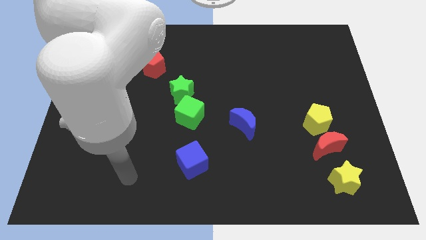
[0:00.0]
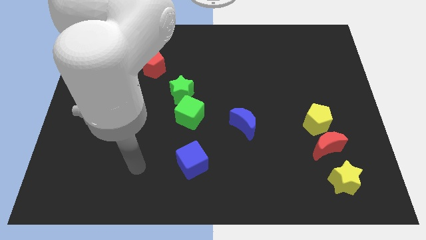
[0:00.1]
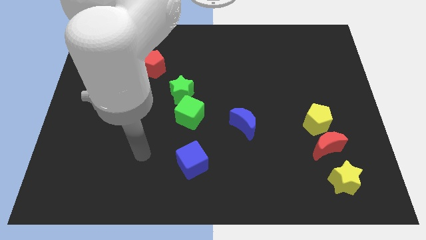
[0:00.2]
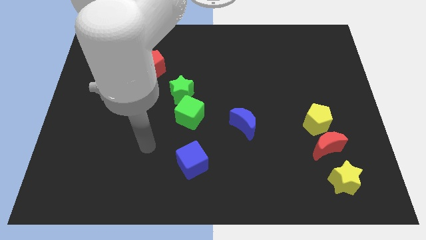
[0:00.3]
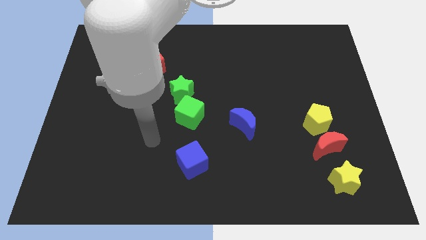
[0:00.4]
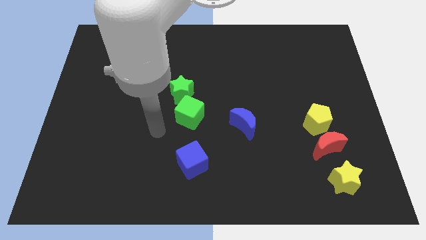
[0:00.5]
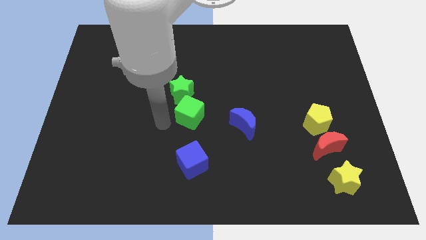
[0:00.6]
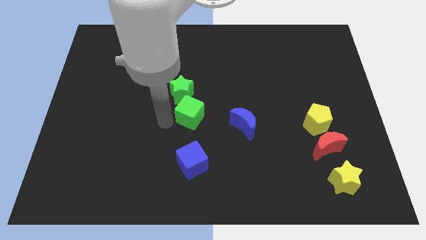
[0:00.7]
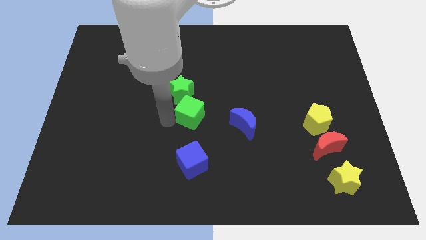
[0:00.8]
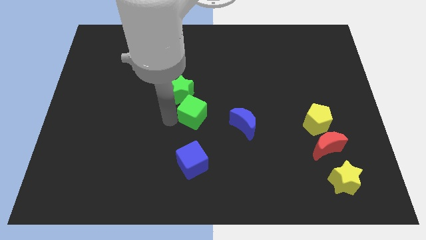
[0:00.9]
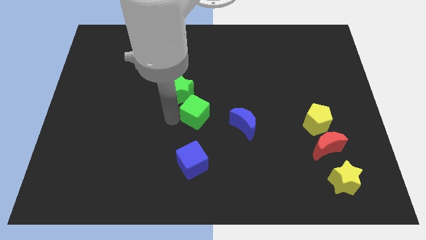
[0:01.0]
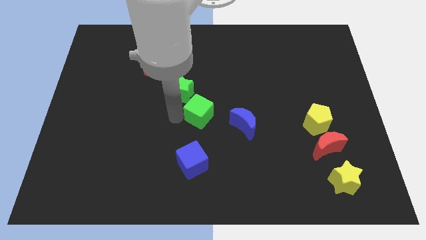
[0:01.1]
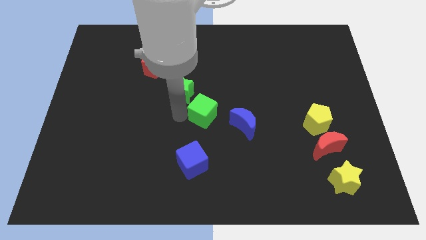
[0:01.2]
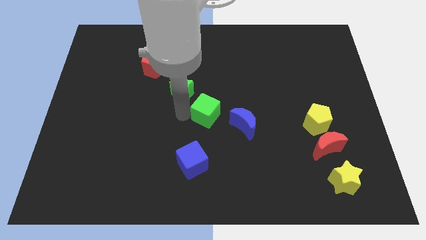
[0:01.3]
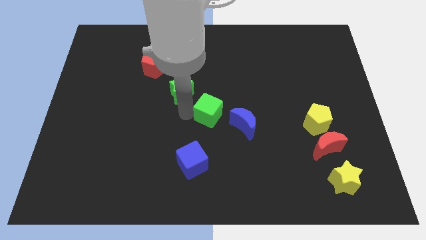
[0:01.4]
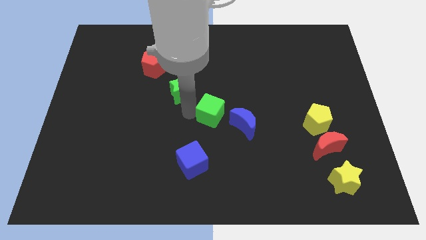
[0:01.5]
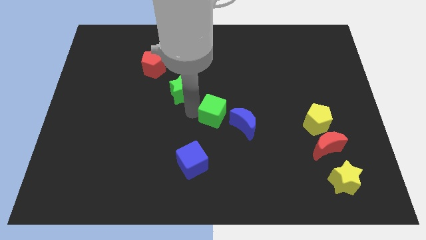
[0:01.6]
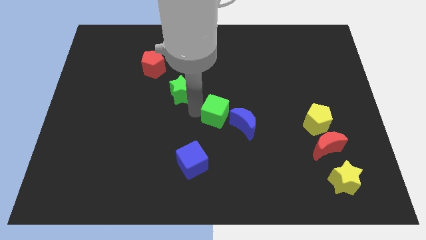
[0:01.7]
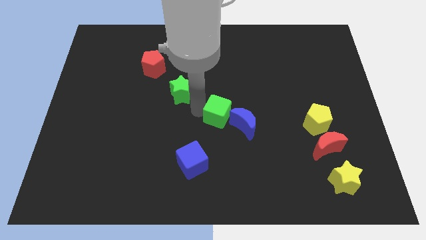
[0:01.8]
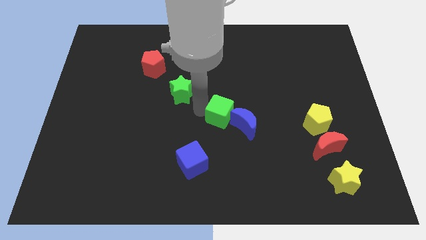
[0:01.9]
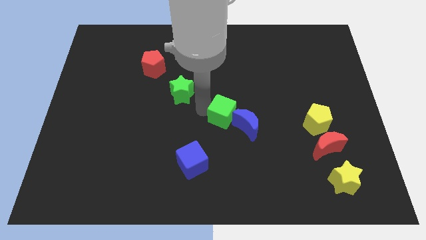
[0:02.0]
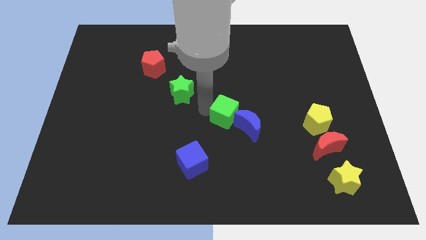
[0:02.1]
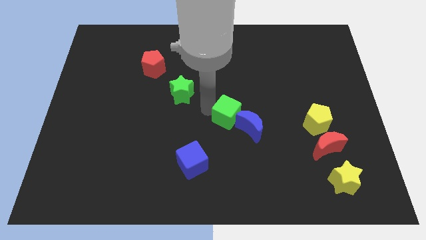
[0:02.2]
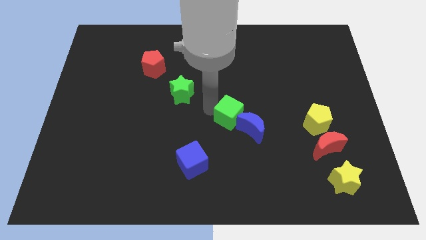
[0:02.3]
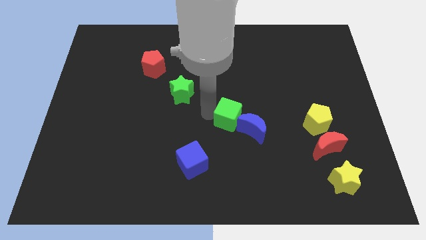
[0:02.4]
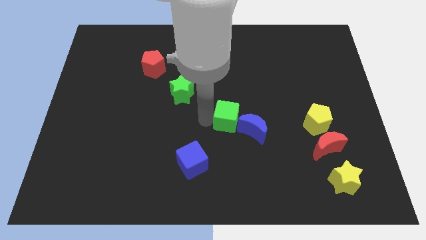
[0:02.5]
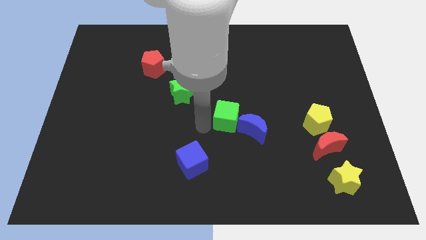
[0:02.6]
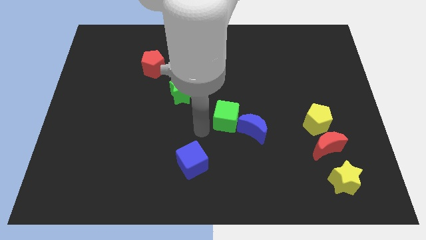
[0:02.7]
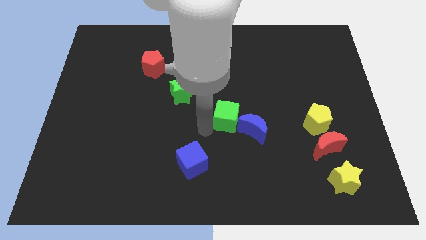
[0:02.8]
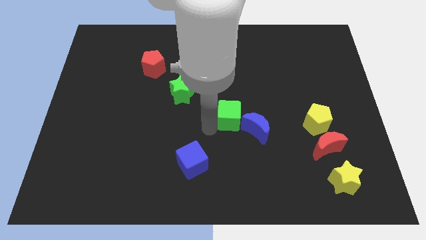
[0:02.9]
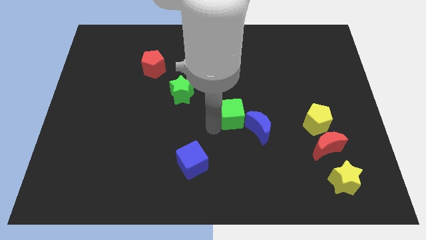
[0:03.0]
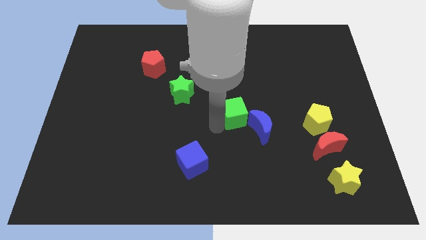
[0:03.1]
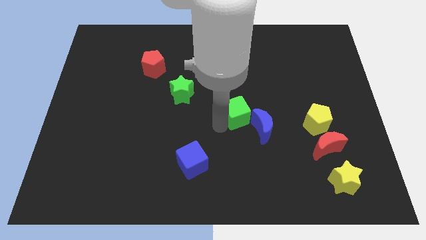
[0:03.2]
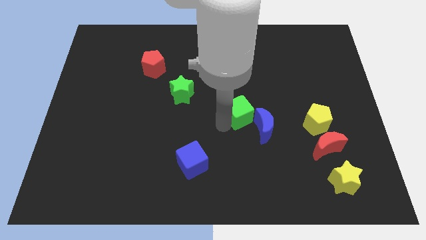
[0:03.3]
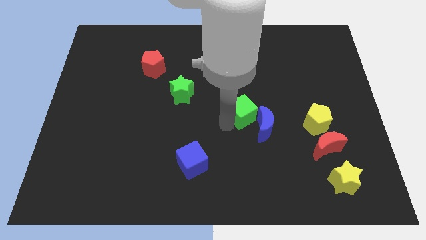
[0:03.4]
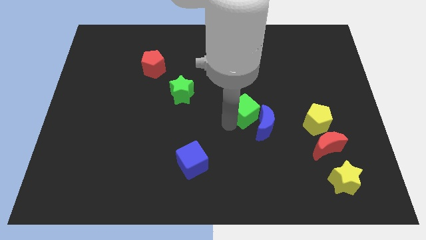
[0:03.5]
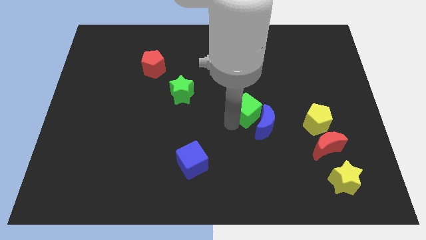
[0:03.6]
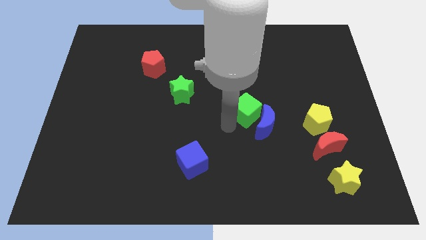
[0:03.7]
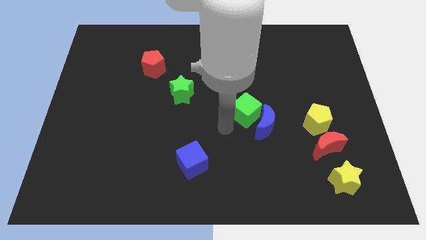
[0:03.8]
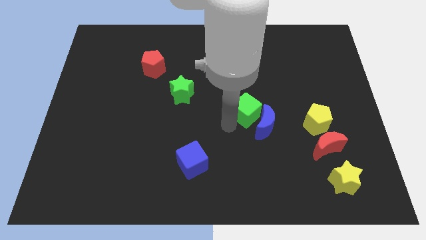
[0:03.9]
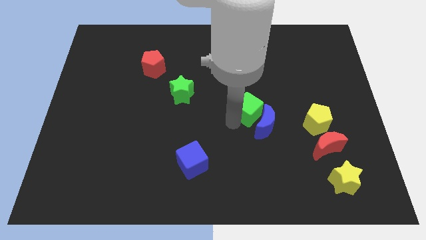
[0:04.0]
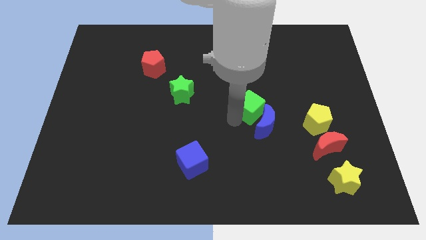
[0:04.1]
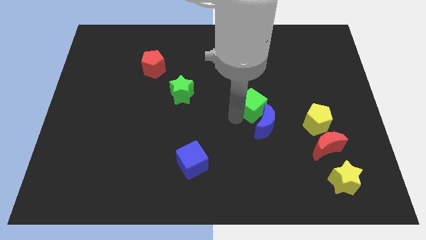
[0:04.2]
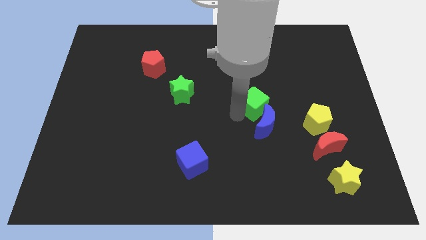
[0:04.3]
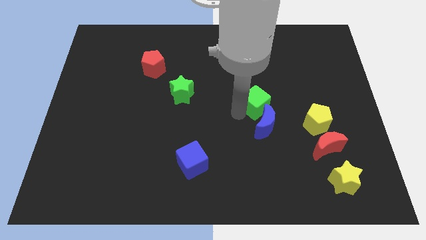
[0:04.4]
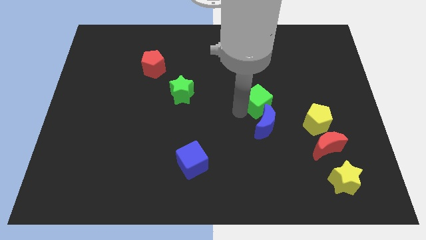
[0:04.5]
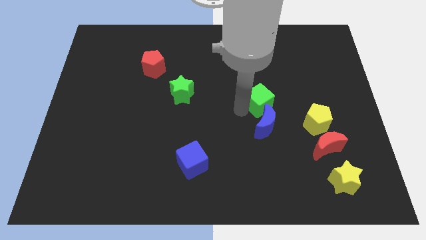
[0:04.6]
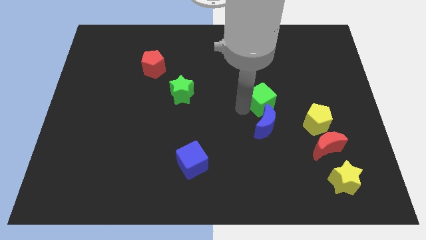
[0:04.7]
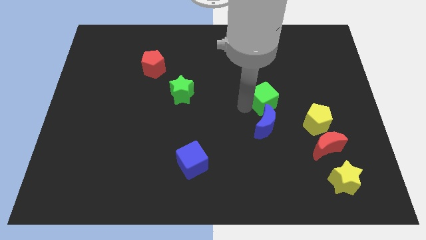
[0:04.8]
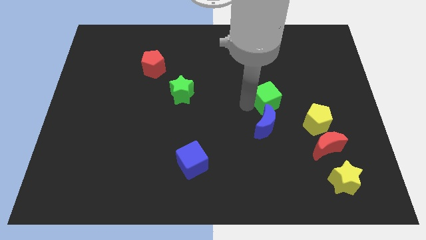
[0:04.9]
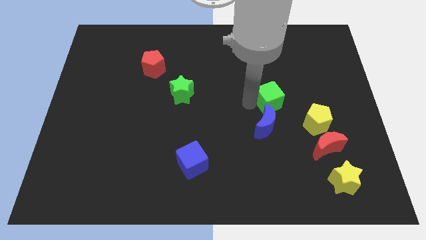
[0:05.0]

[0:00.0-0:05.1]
slide the green cube to the top left of the yellow pentagon

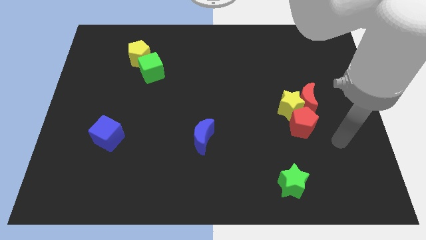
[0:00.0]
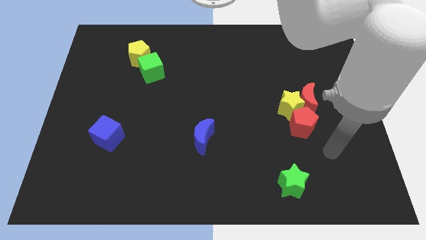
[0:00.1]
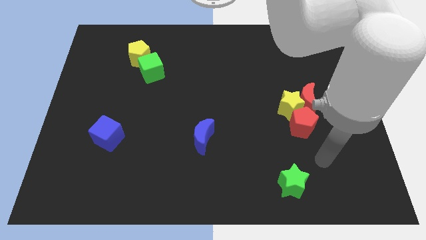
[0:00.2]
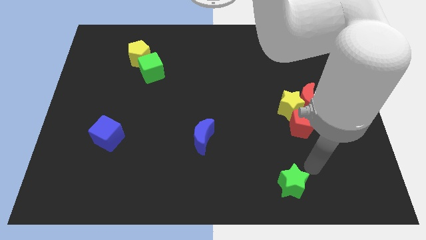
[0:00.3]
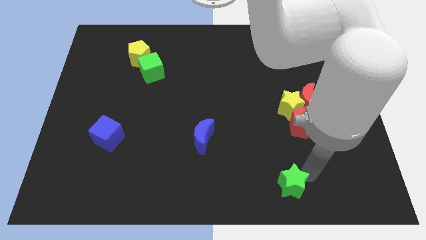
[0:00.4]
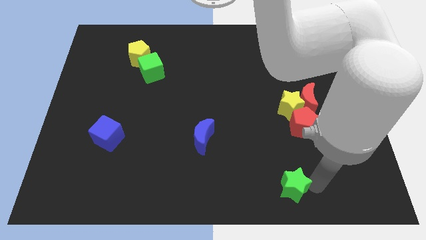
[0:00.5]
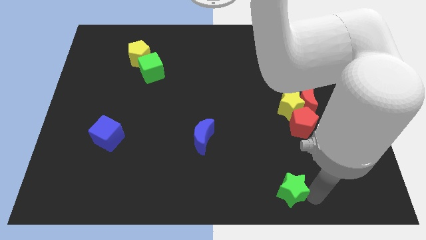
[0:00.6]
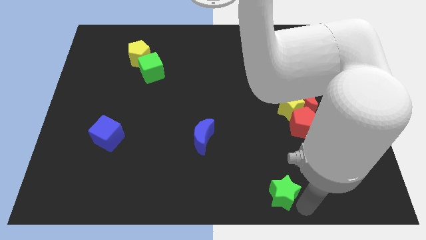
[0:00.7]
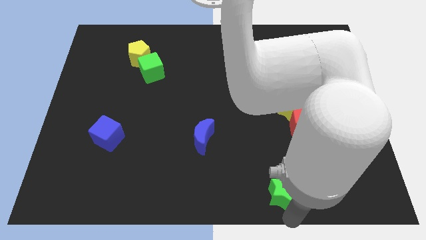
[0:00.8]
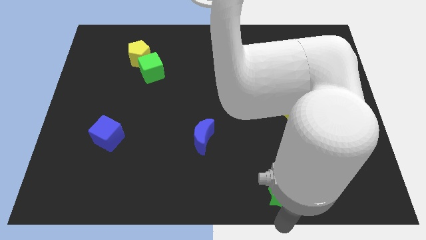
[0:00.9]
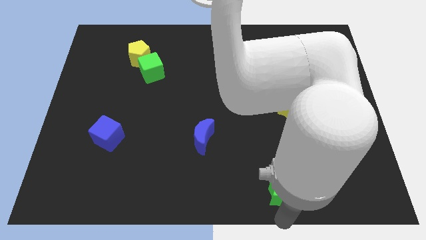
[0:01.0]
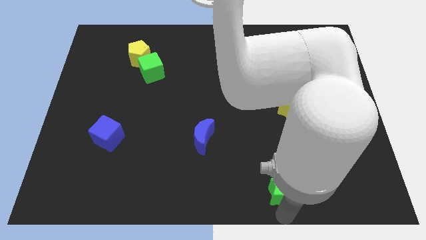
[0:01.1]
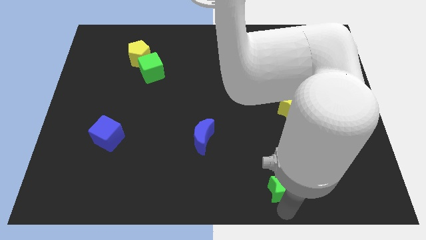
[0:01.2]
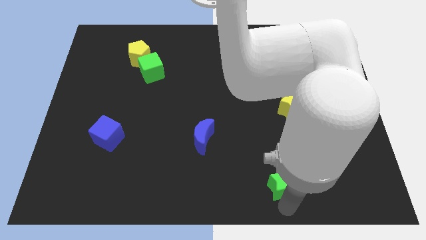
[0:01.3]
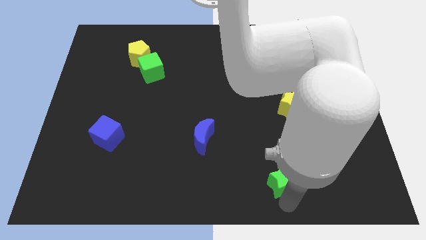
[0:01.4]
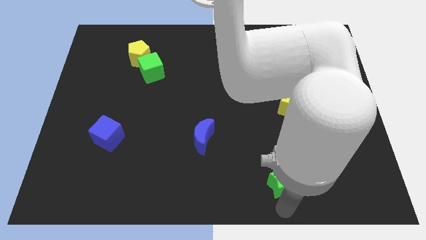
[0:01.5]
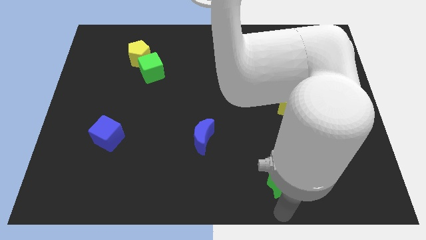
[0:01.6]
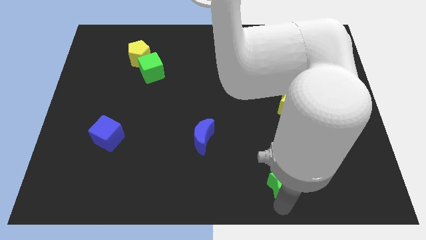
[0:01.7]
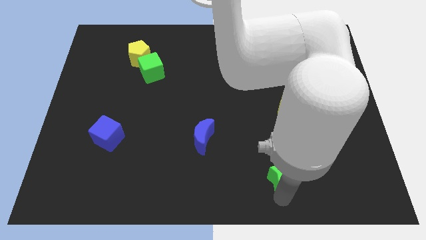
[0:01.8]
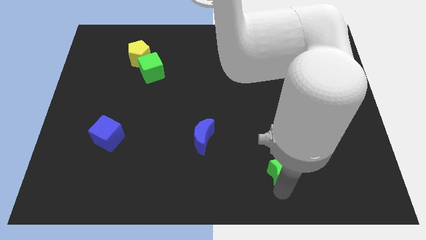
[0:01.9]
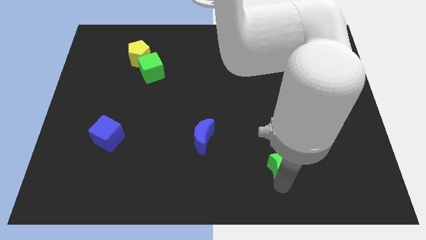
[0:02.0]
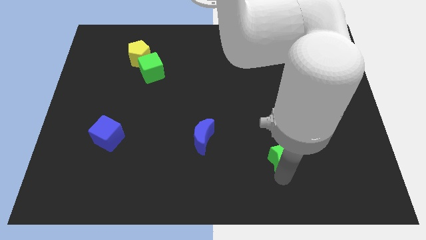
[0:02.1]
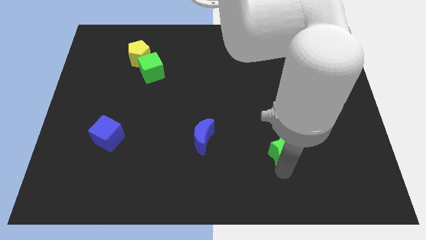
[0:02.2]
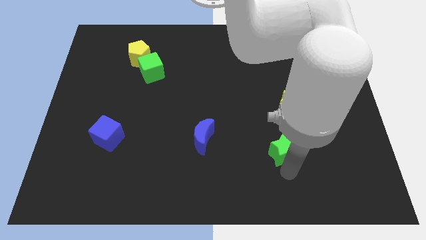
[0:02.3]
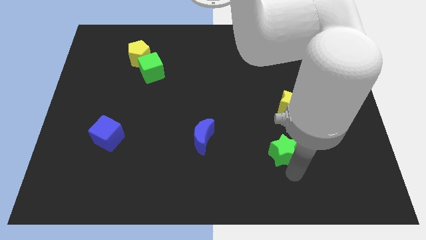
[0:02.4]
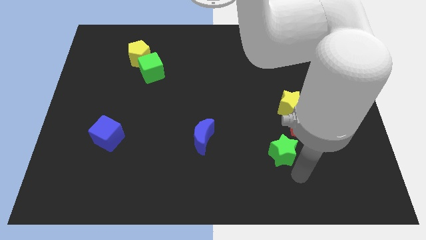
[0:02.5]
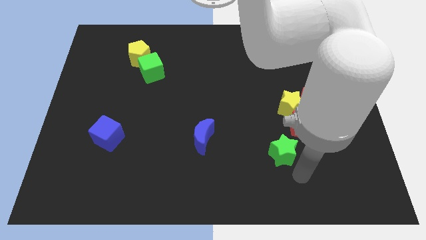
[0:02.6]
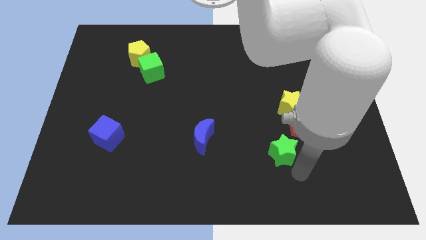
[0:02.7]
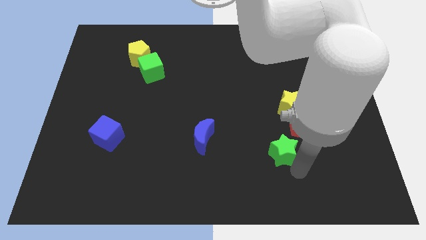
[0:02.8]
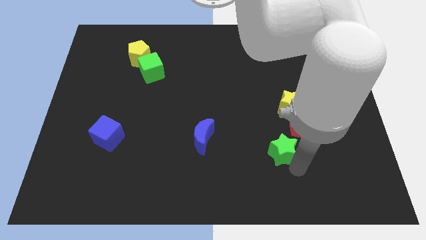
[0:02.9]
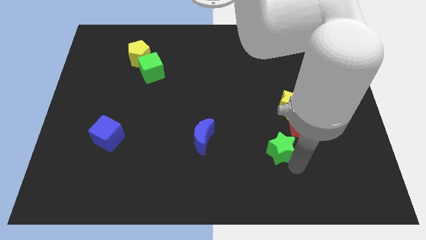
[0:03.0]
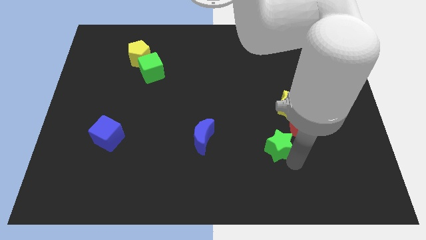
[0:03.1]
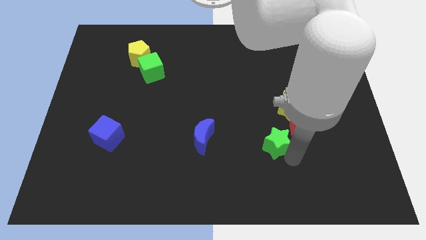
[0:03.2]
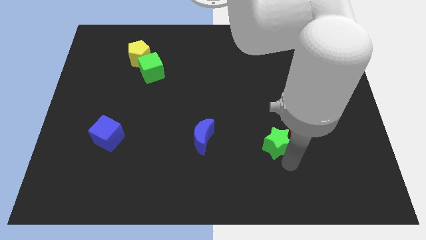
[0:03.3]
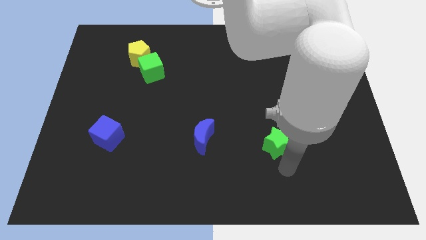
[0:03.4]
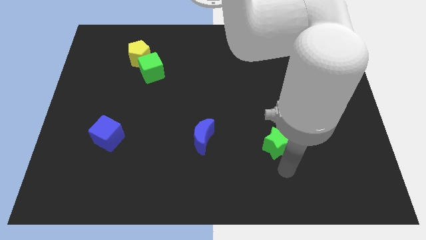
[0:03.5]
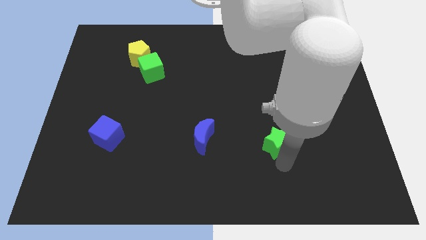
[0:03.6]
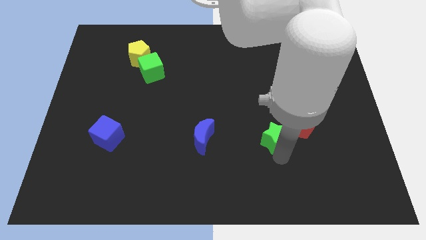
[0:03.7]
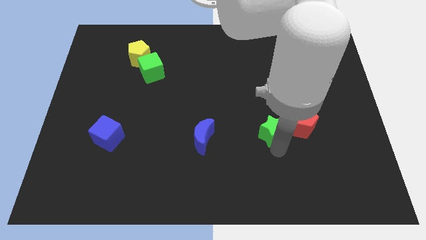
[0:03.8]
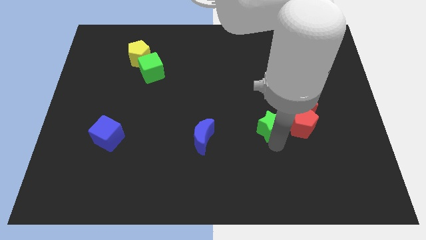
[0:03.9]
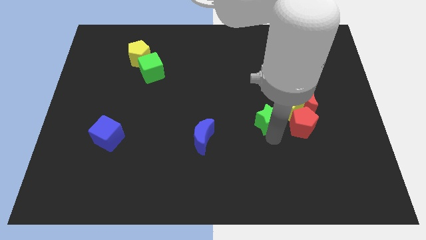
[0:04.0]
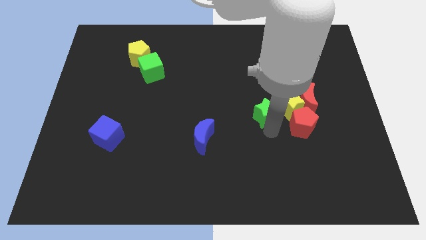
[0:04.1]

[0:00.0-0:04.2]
move the green star to the left of the red moon
